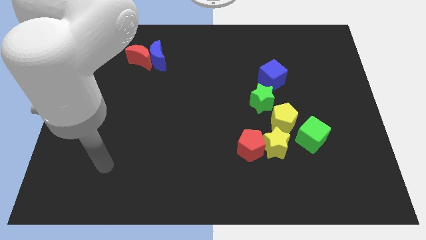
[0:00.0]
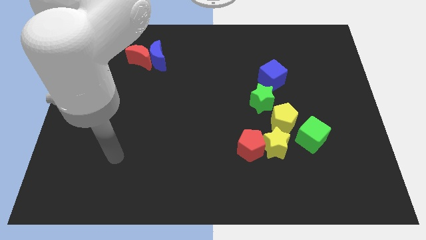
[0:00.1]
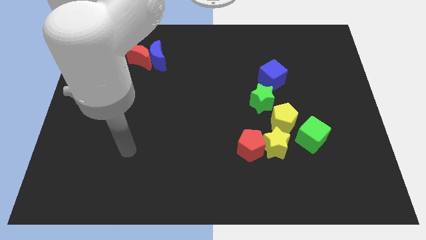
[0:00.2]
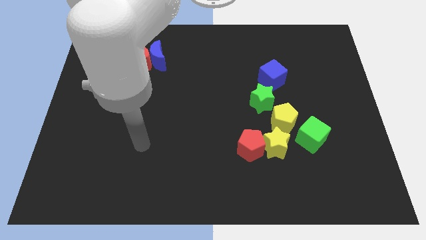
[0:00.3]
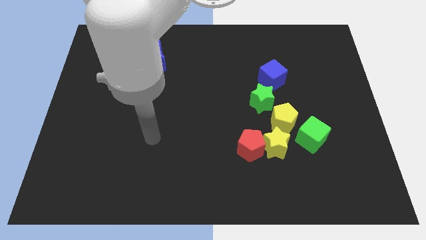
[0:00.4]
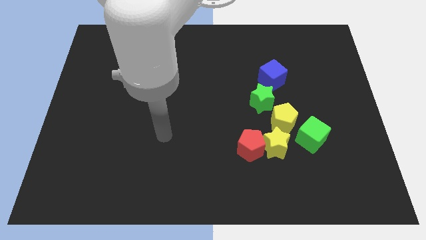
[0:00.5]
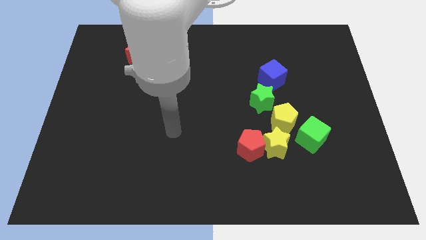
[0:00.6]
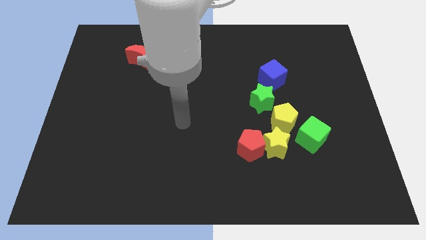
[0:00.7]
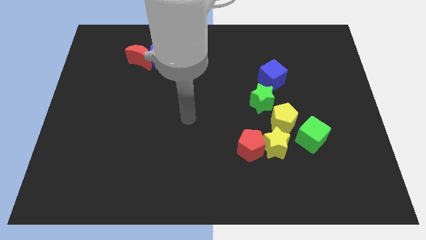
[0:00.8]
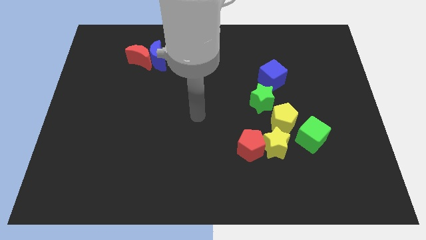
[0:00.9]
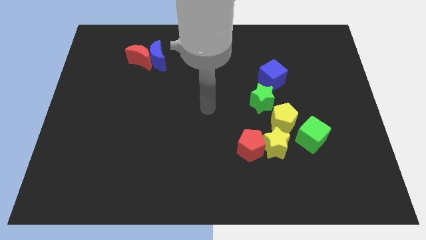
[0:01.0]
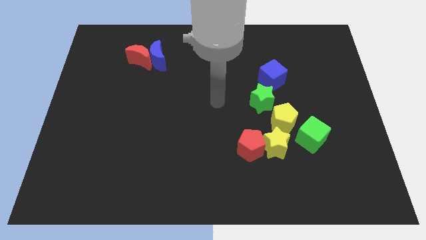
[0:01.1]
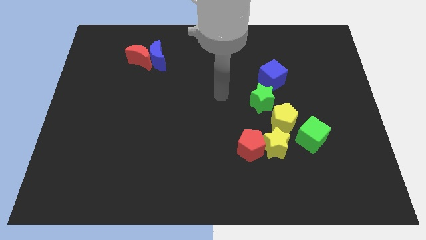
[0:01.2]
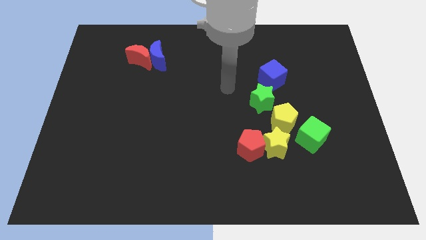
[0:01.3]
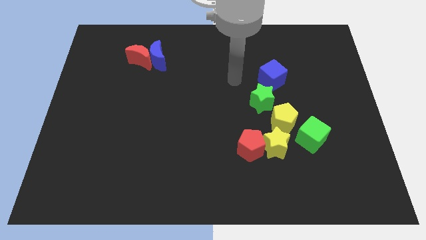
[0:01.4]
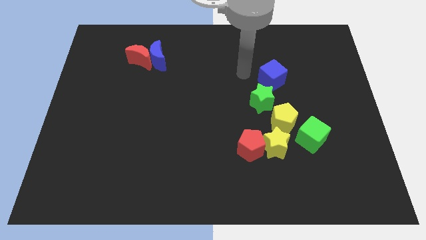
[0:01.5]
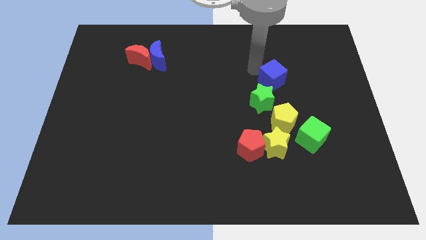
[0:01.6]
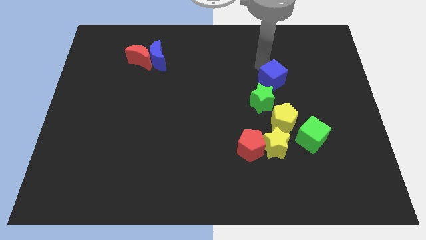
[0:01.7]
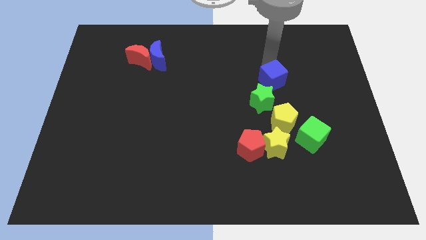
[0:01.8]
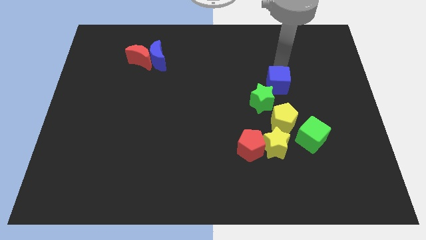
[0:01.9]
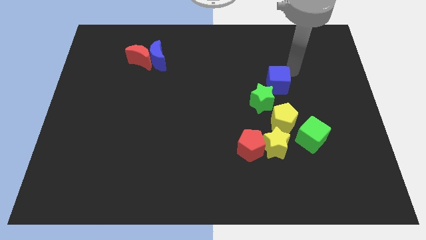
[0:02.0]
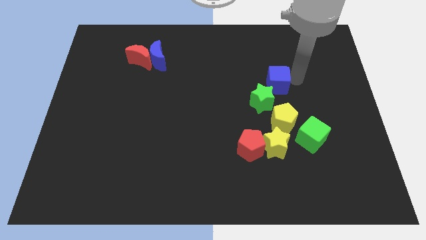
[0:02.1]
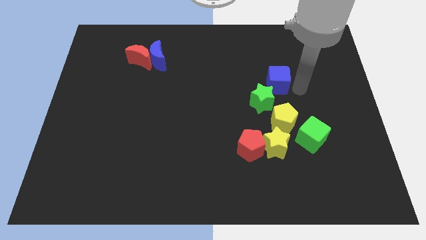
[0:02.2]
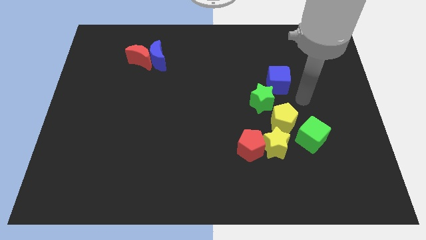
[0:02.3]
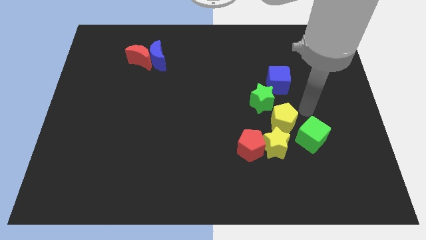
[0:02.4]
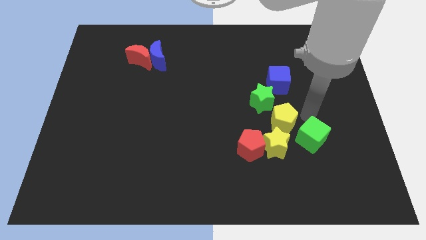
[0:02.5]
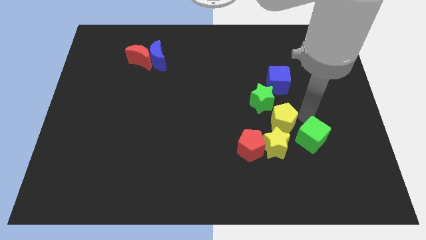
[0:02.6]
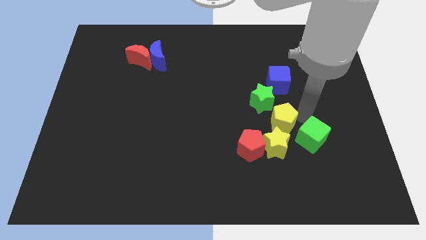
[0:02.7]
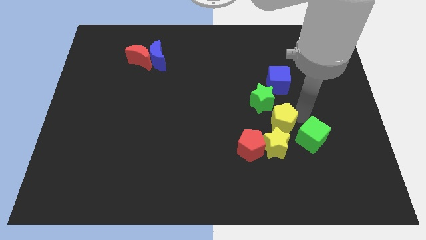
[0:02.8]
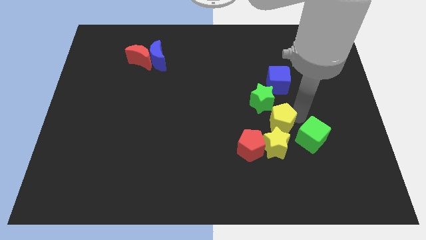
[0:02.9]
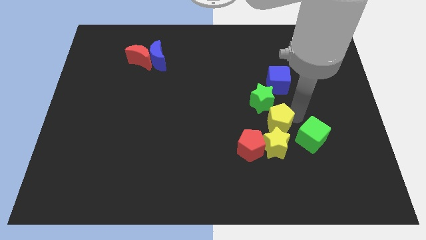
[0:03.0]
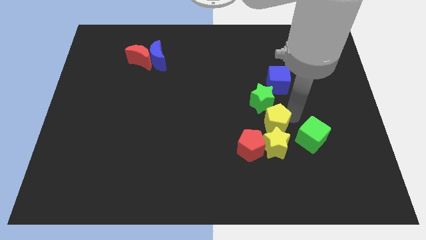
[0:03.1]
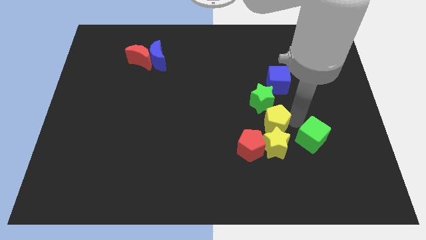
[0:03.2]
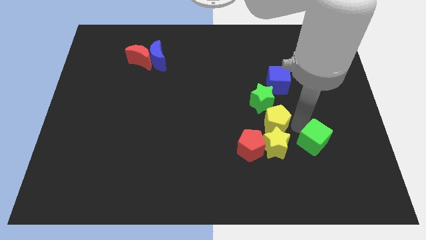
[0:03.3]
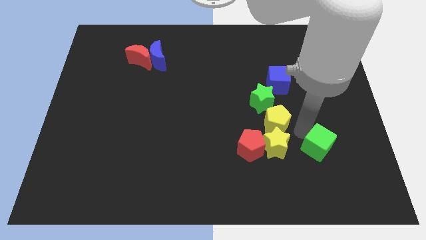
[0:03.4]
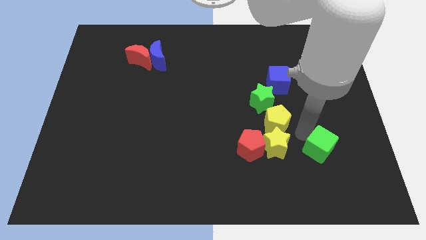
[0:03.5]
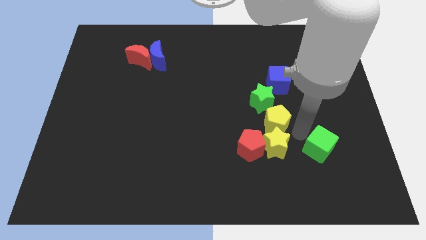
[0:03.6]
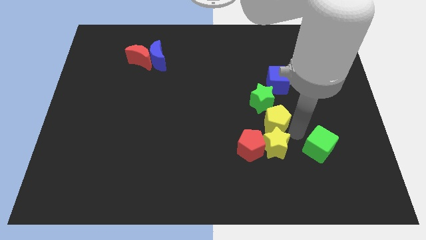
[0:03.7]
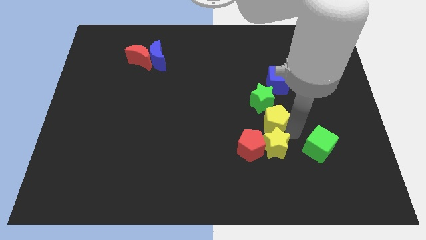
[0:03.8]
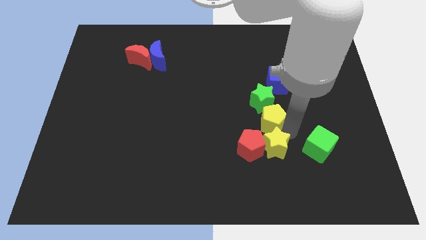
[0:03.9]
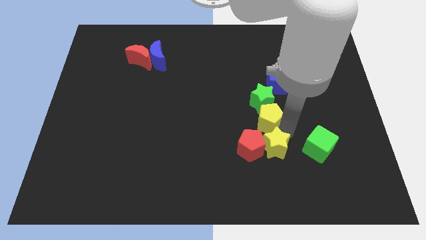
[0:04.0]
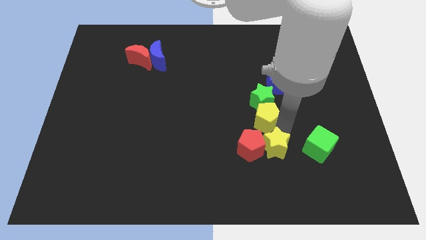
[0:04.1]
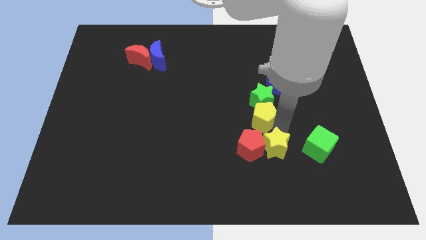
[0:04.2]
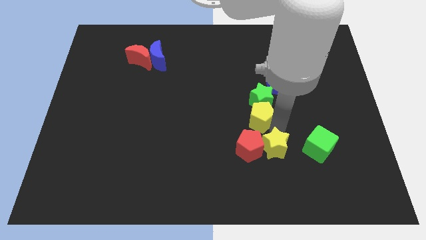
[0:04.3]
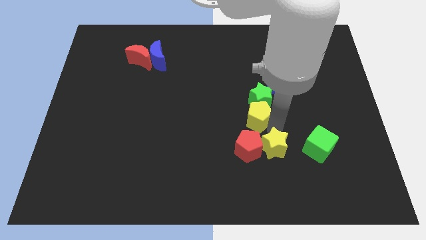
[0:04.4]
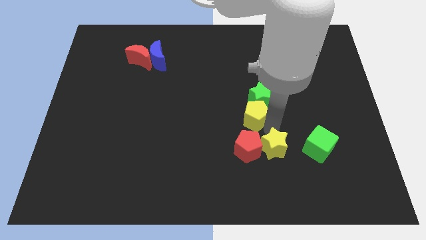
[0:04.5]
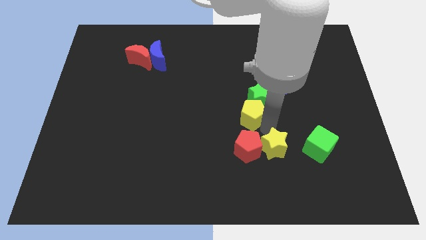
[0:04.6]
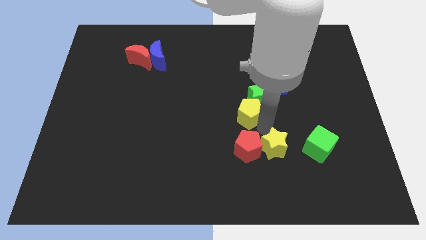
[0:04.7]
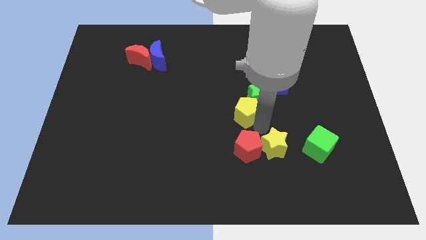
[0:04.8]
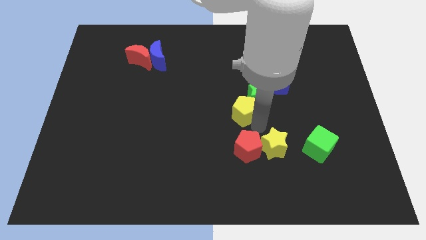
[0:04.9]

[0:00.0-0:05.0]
push the yellow pentagon a little bit upwards and to the left diagonally

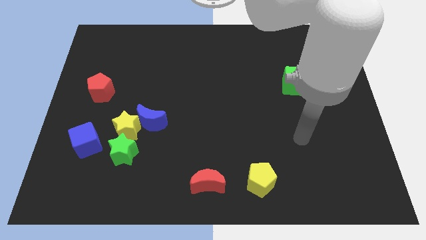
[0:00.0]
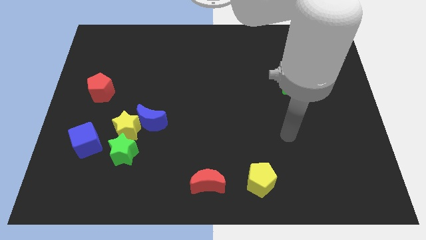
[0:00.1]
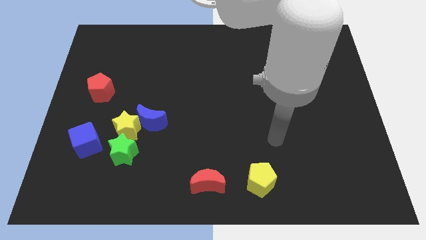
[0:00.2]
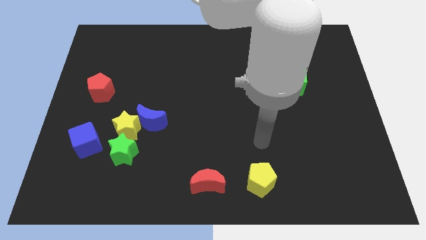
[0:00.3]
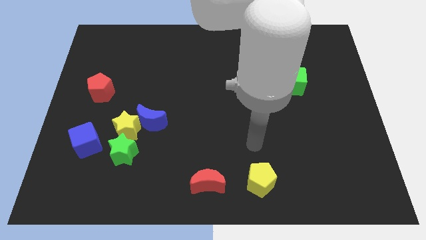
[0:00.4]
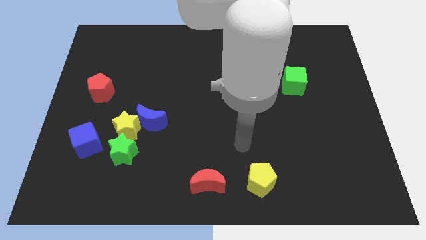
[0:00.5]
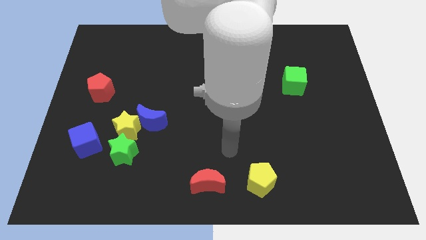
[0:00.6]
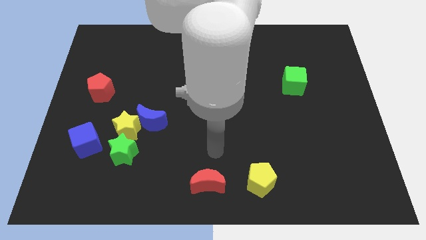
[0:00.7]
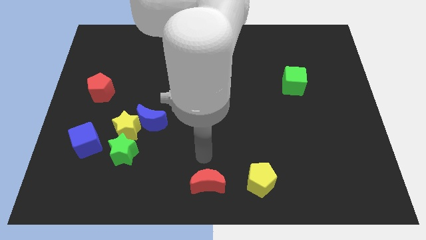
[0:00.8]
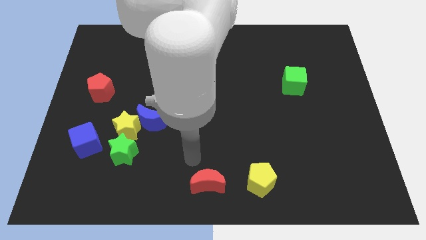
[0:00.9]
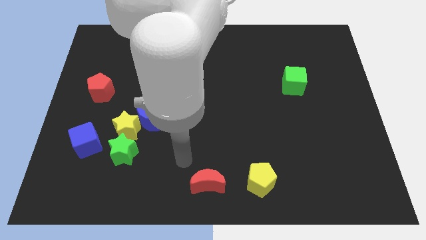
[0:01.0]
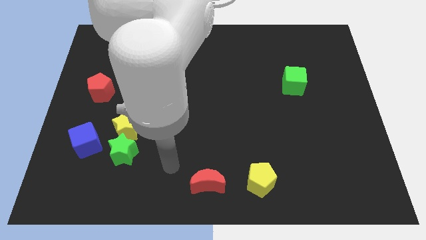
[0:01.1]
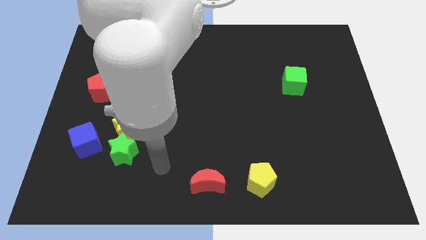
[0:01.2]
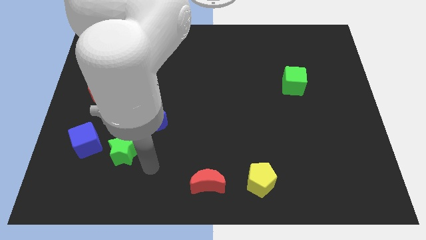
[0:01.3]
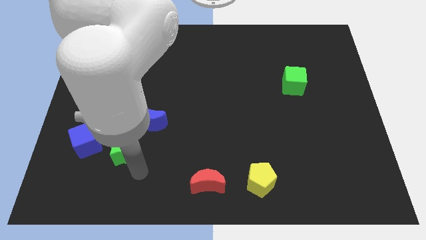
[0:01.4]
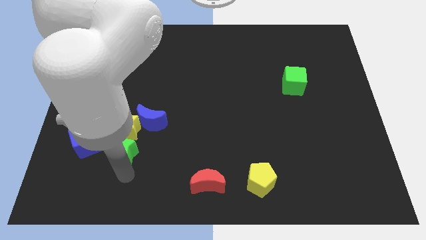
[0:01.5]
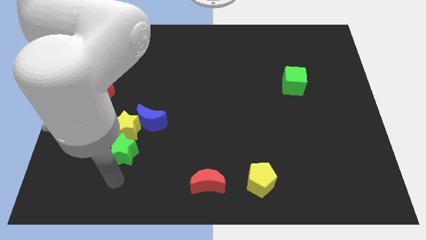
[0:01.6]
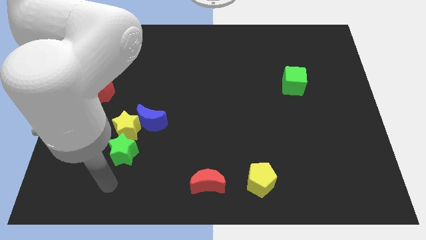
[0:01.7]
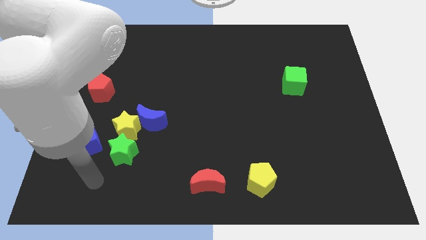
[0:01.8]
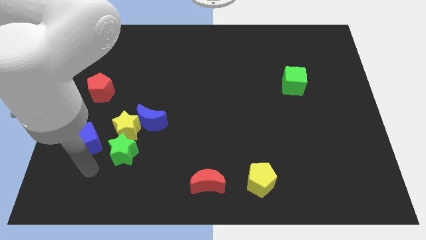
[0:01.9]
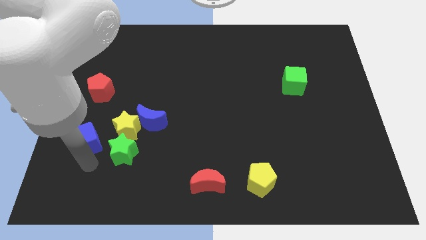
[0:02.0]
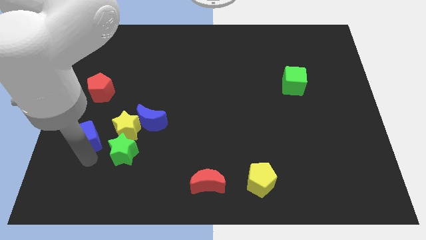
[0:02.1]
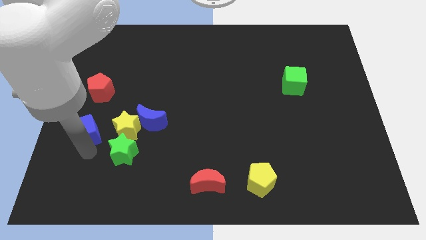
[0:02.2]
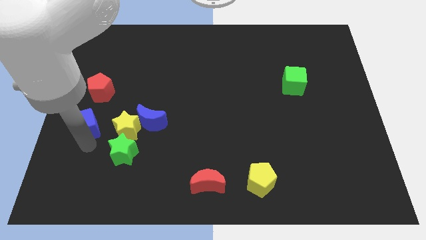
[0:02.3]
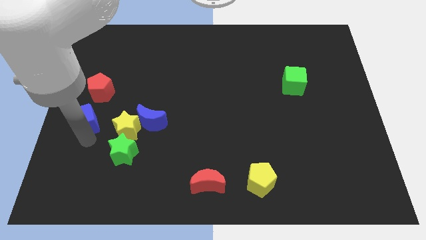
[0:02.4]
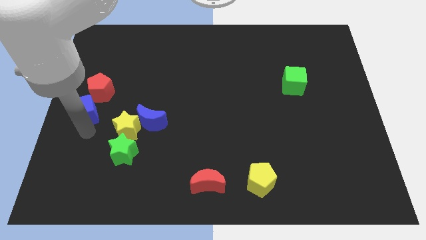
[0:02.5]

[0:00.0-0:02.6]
push the blue cube upwards a bit

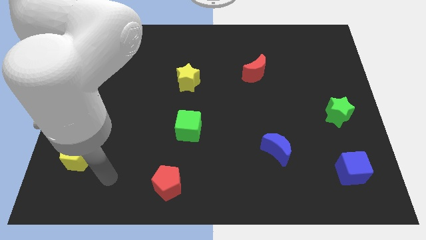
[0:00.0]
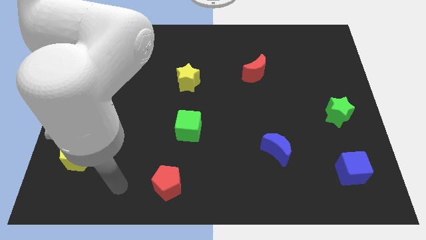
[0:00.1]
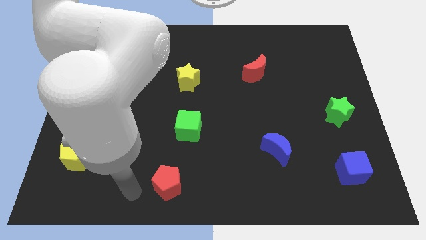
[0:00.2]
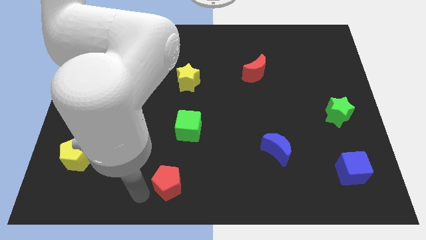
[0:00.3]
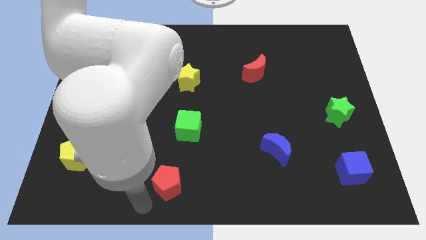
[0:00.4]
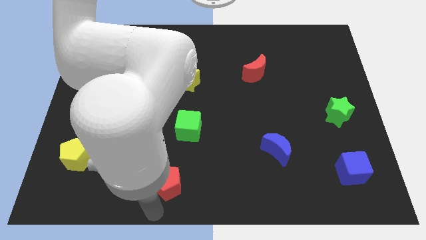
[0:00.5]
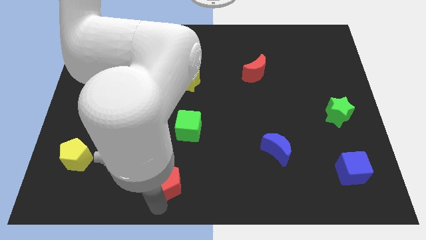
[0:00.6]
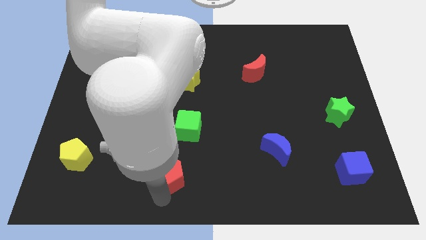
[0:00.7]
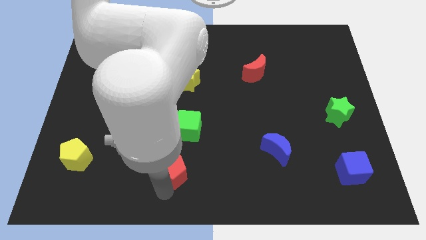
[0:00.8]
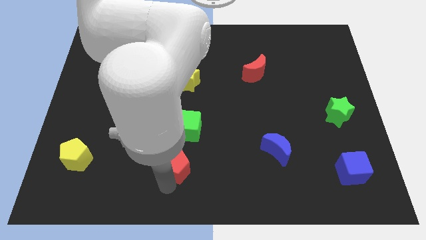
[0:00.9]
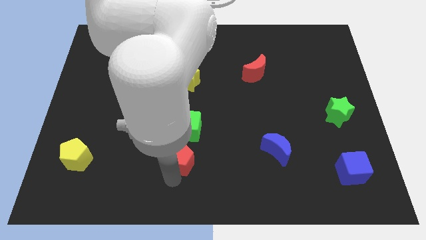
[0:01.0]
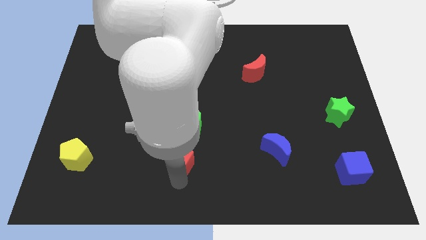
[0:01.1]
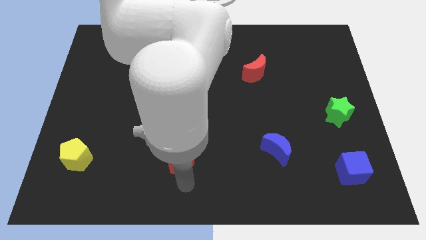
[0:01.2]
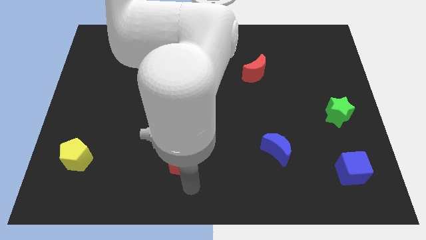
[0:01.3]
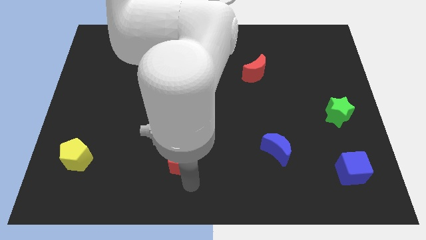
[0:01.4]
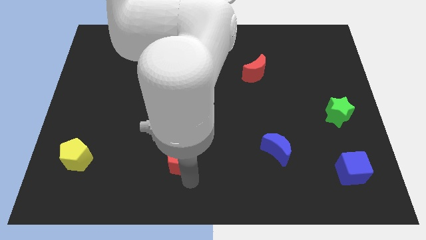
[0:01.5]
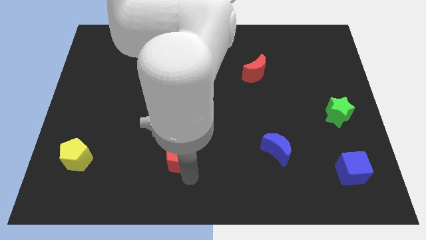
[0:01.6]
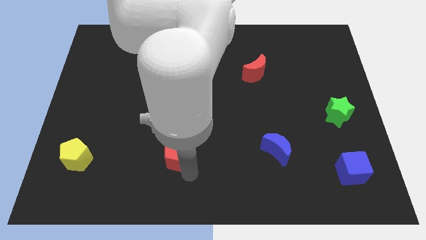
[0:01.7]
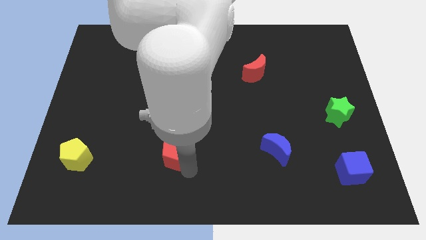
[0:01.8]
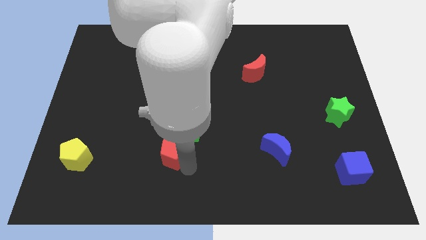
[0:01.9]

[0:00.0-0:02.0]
slide the red pentagon up a little
